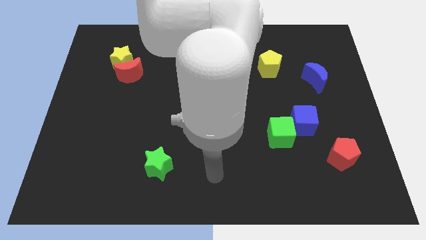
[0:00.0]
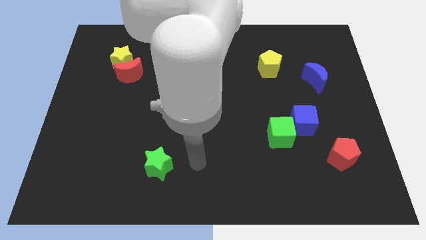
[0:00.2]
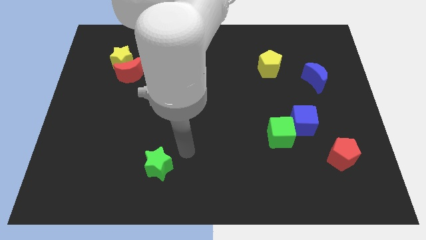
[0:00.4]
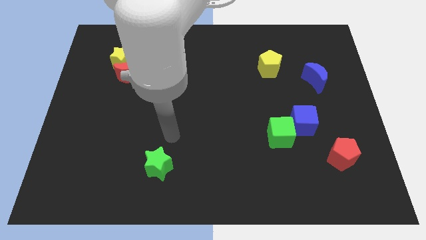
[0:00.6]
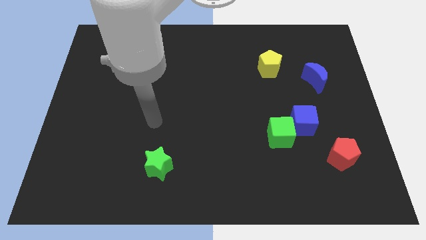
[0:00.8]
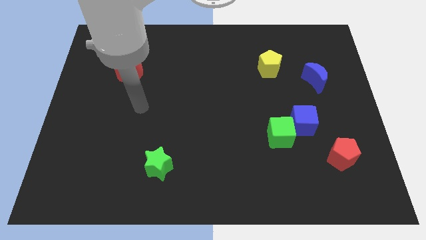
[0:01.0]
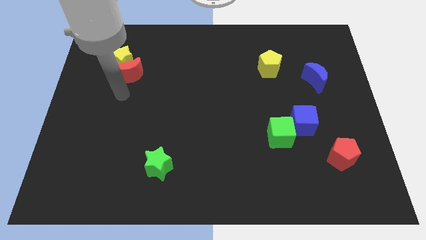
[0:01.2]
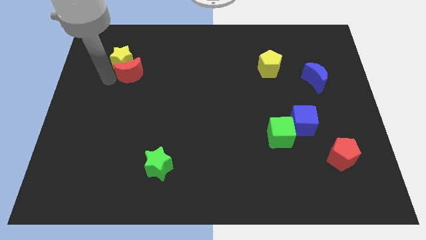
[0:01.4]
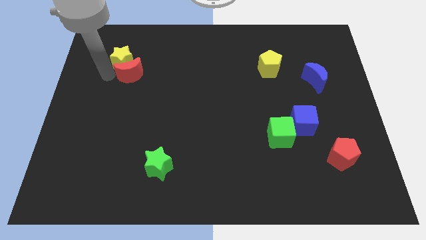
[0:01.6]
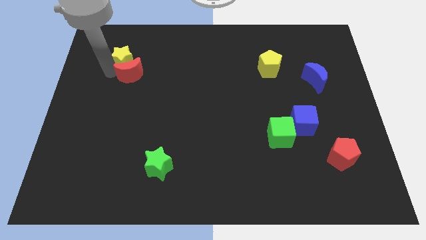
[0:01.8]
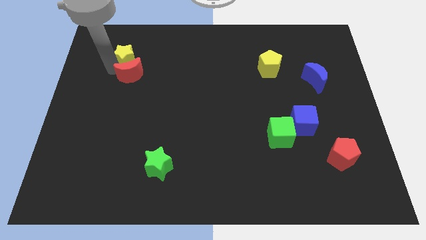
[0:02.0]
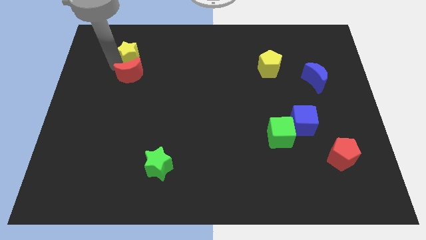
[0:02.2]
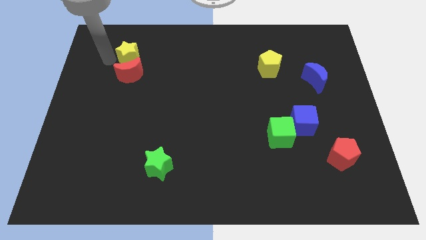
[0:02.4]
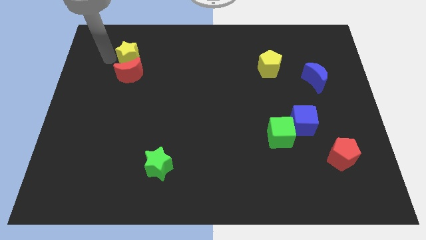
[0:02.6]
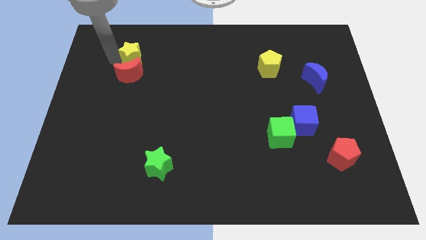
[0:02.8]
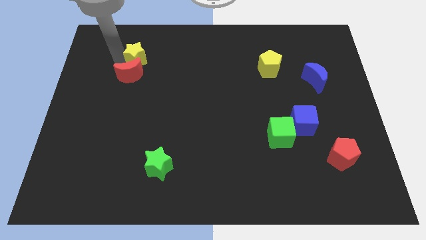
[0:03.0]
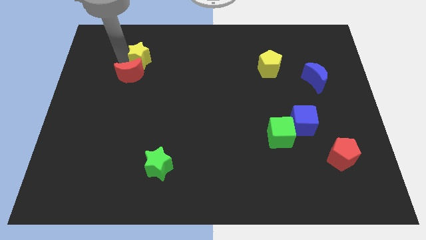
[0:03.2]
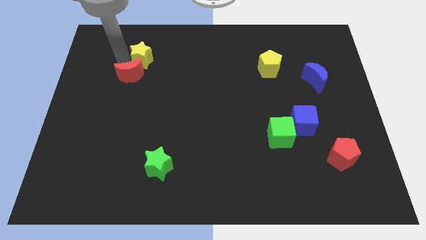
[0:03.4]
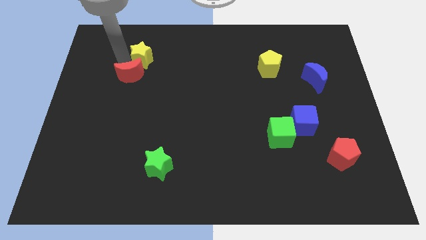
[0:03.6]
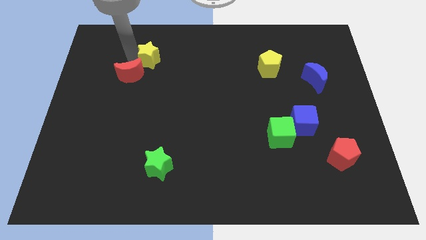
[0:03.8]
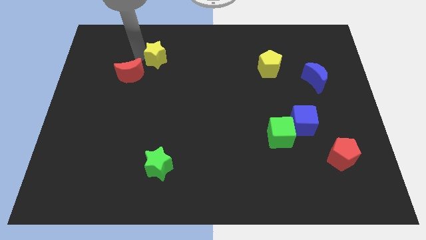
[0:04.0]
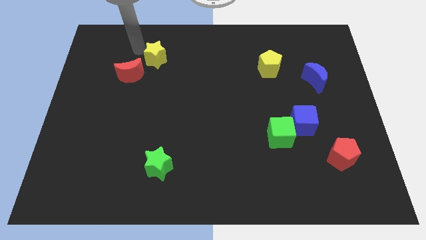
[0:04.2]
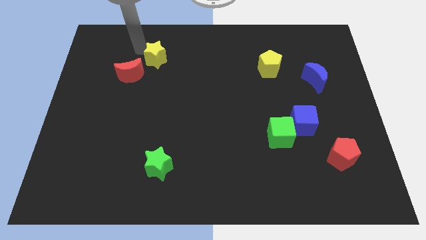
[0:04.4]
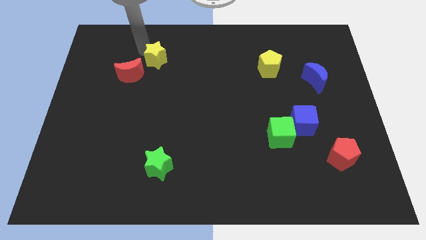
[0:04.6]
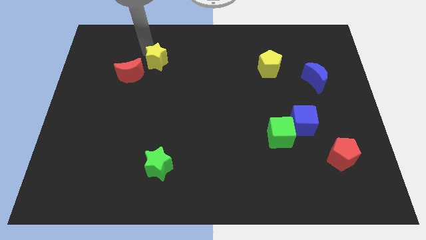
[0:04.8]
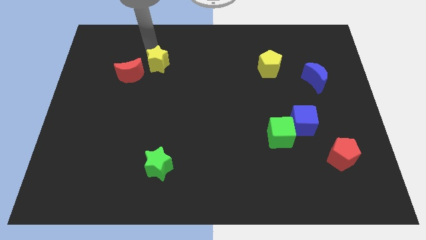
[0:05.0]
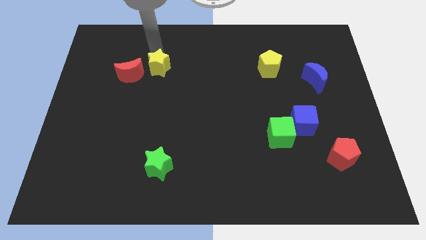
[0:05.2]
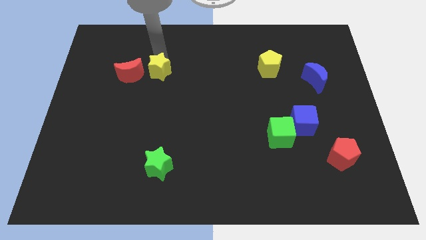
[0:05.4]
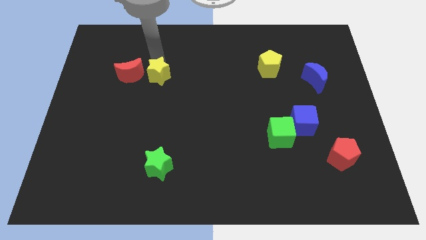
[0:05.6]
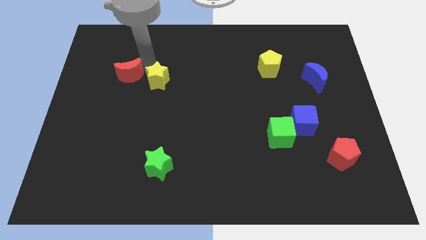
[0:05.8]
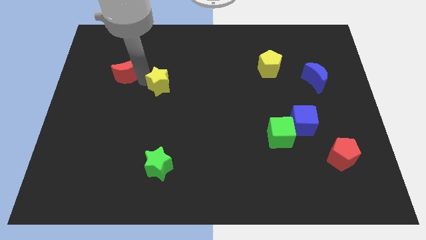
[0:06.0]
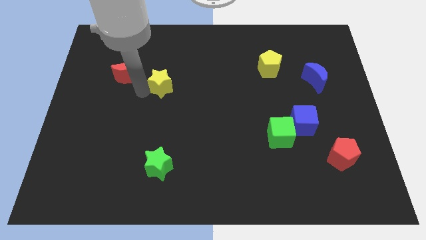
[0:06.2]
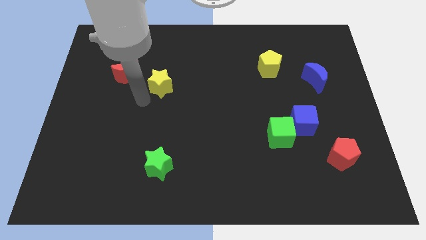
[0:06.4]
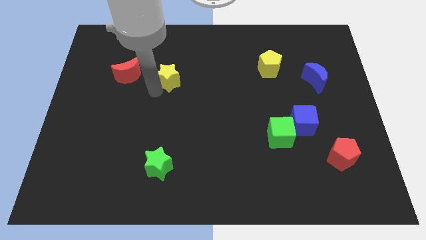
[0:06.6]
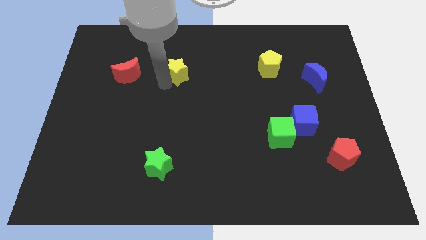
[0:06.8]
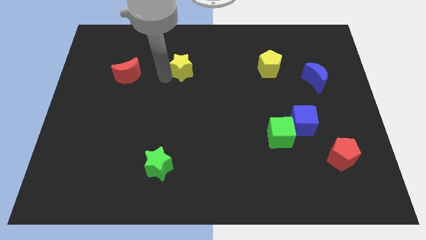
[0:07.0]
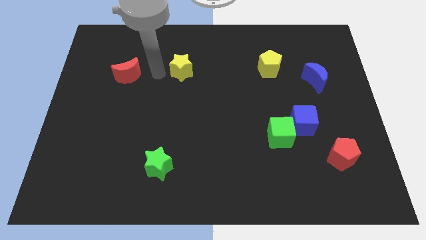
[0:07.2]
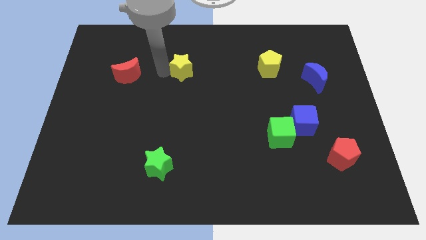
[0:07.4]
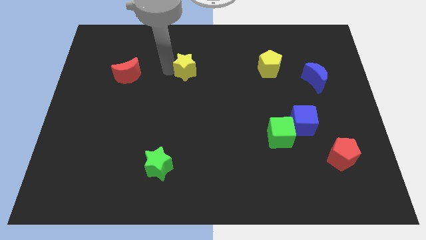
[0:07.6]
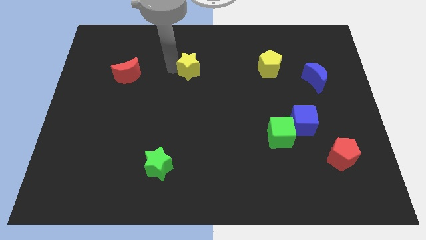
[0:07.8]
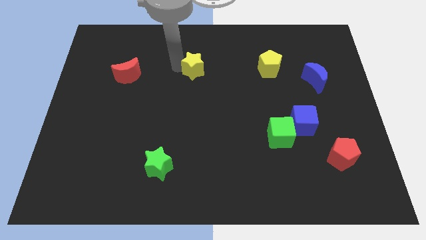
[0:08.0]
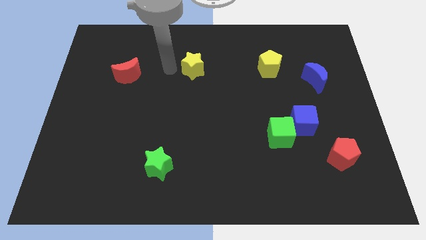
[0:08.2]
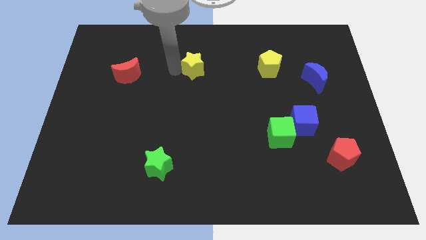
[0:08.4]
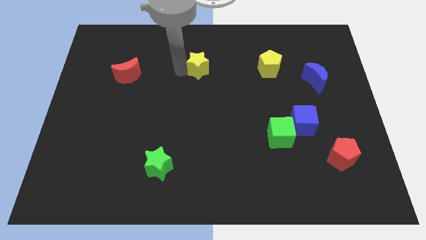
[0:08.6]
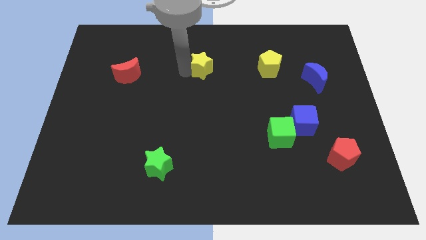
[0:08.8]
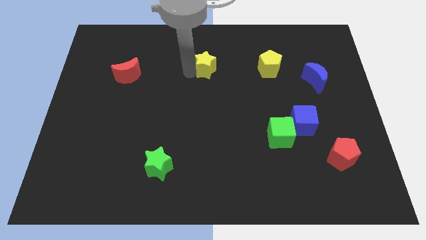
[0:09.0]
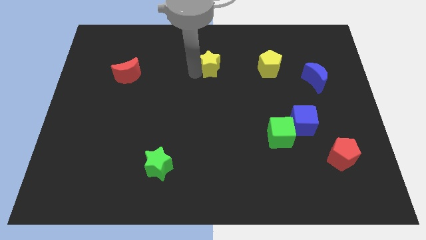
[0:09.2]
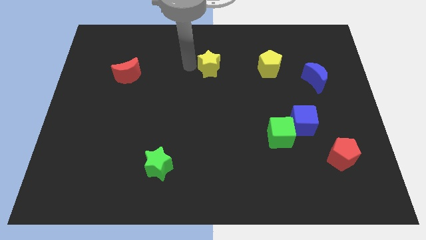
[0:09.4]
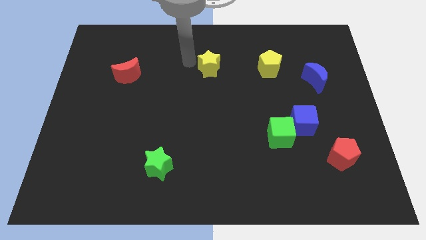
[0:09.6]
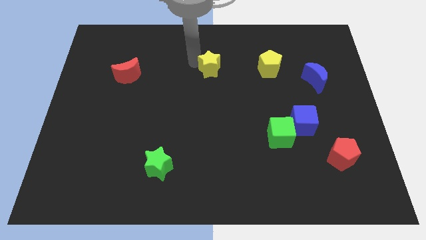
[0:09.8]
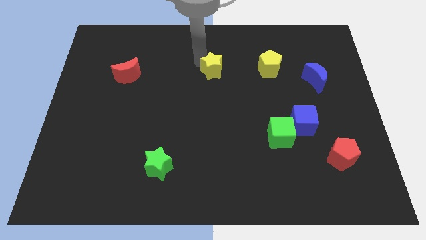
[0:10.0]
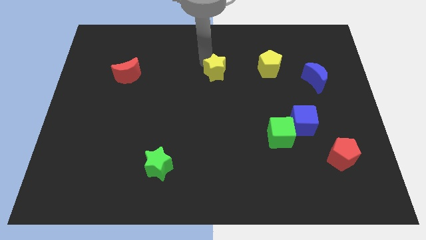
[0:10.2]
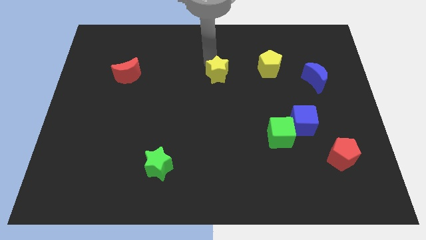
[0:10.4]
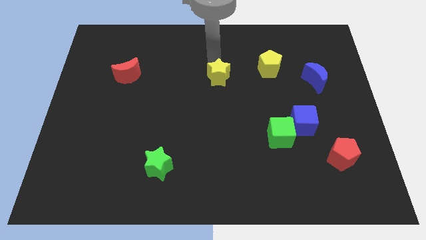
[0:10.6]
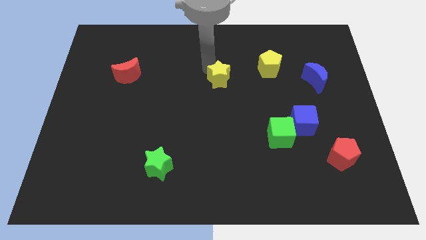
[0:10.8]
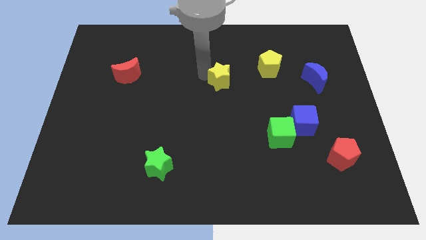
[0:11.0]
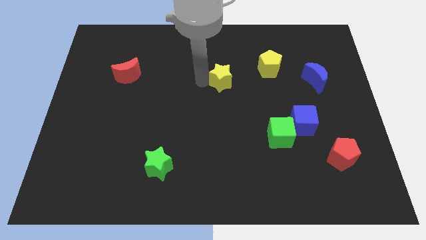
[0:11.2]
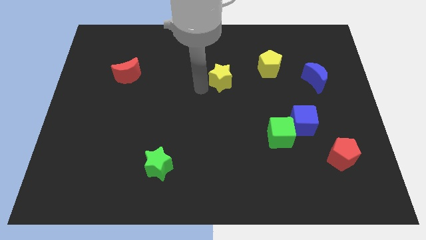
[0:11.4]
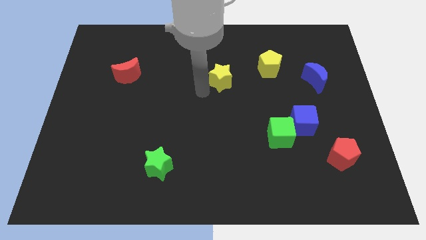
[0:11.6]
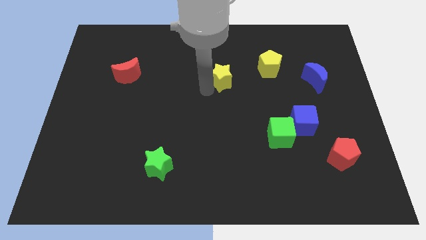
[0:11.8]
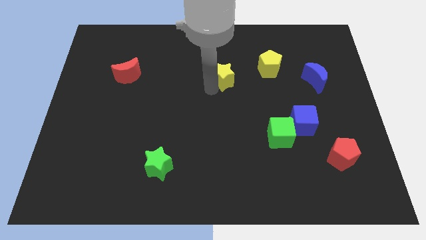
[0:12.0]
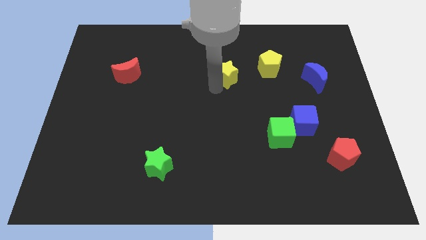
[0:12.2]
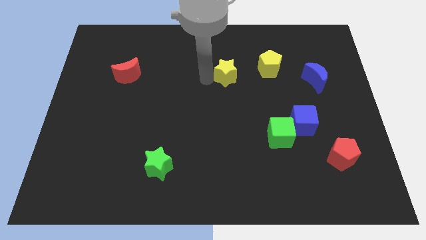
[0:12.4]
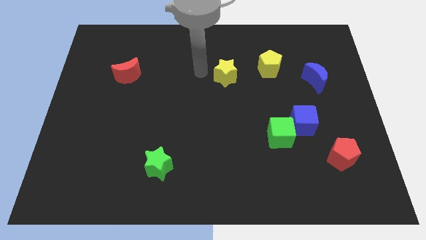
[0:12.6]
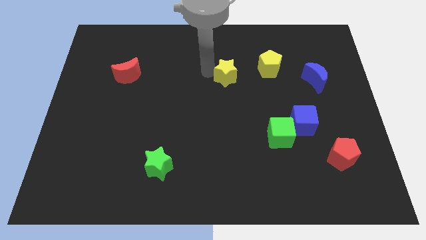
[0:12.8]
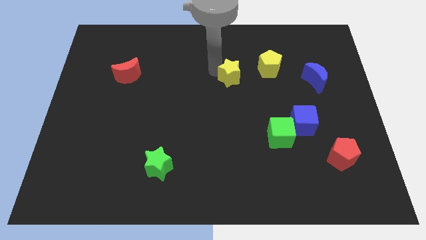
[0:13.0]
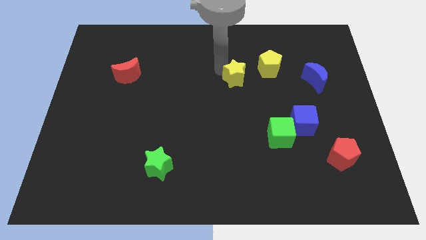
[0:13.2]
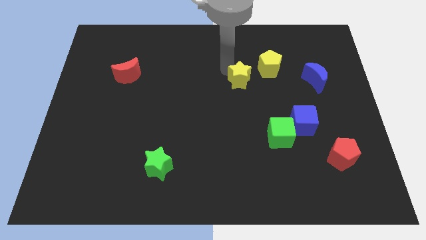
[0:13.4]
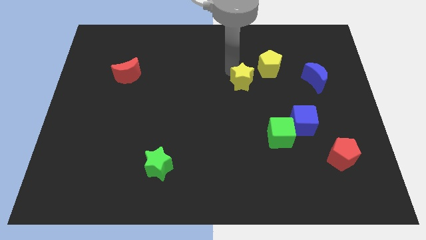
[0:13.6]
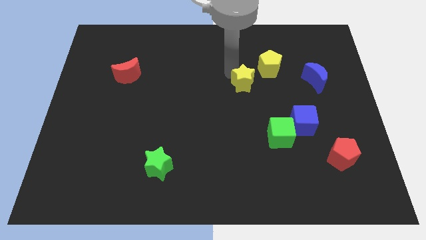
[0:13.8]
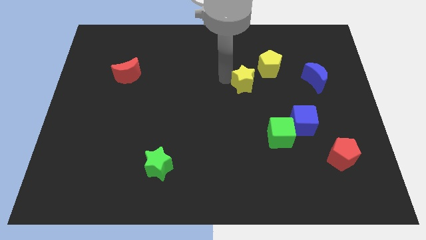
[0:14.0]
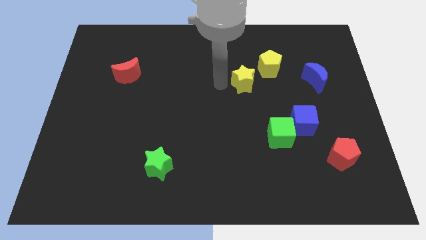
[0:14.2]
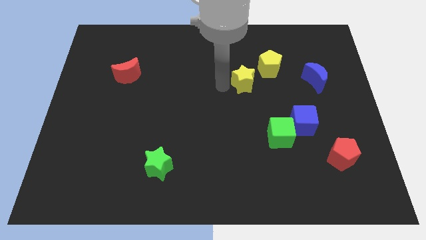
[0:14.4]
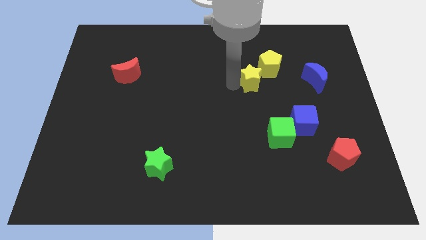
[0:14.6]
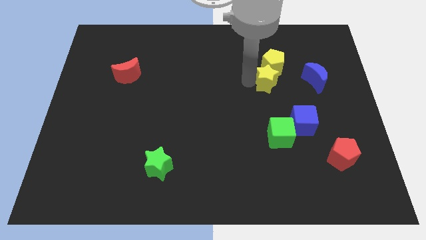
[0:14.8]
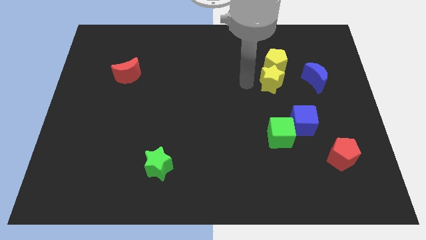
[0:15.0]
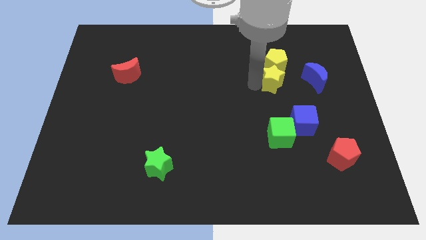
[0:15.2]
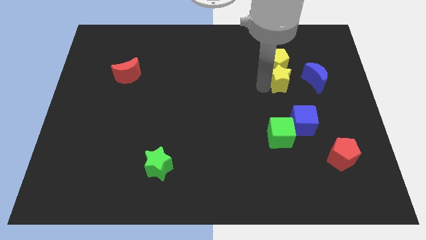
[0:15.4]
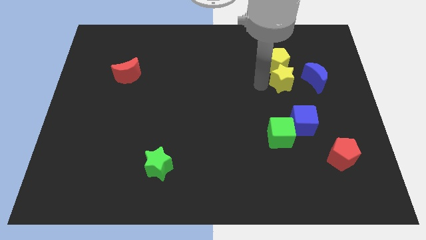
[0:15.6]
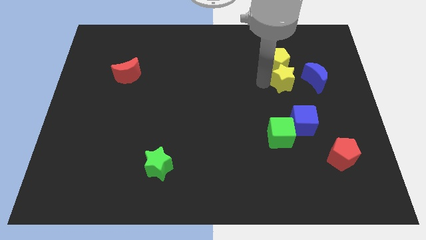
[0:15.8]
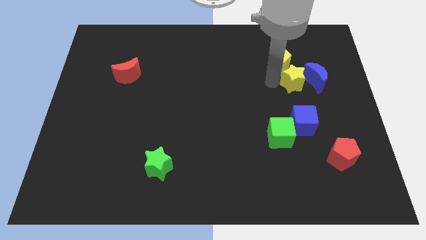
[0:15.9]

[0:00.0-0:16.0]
push the yellow star to the blue moon
